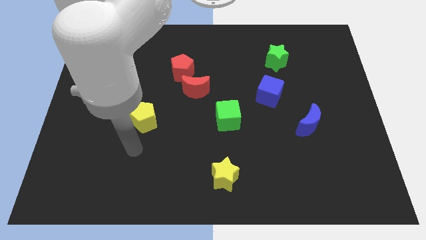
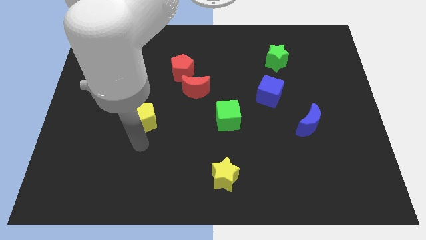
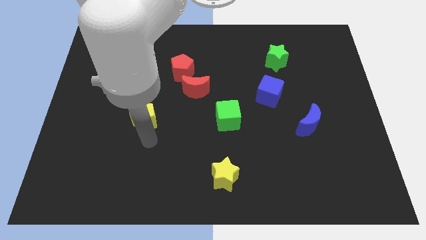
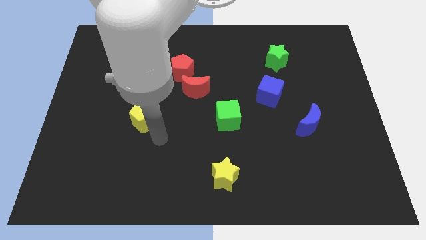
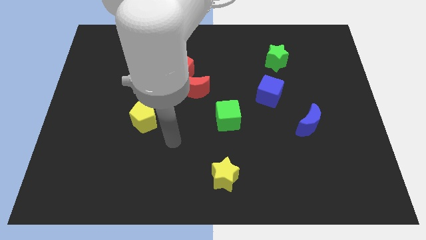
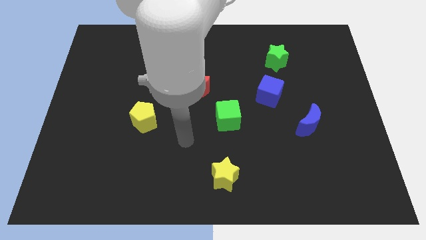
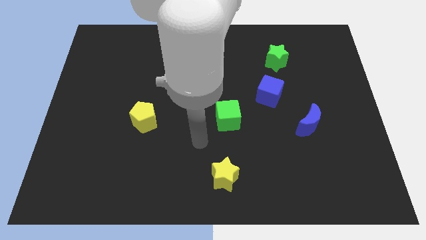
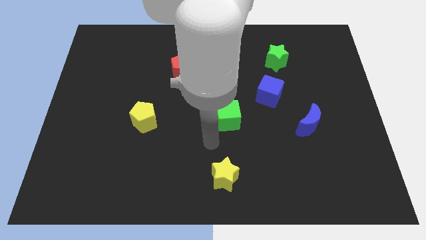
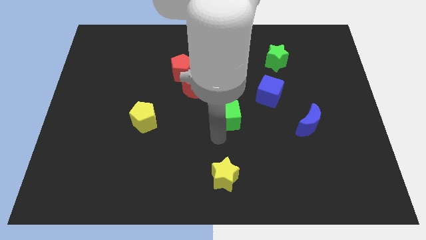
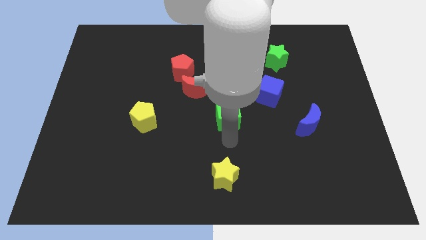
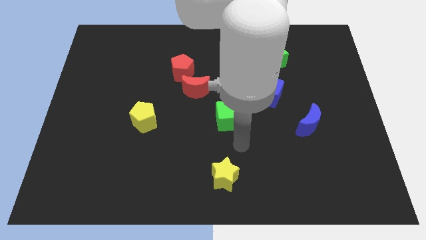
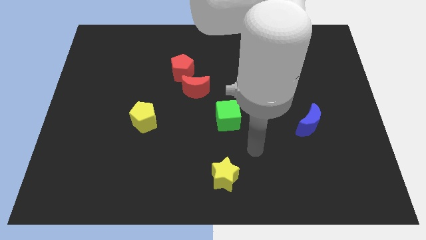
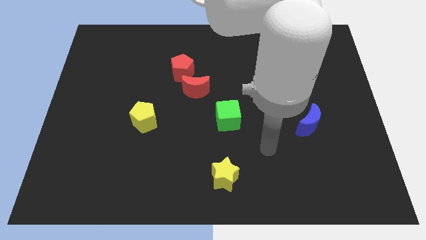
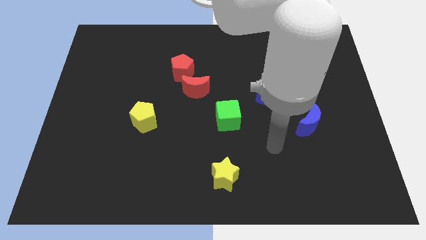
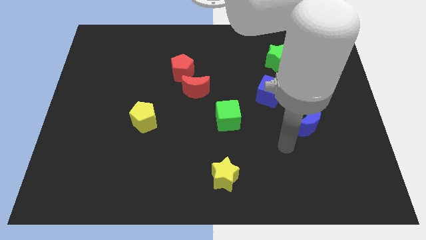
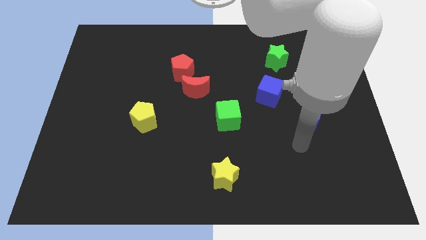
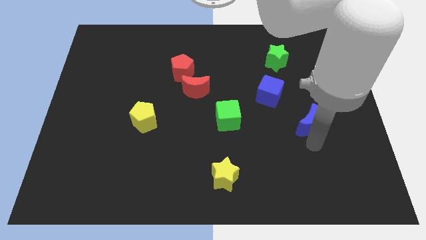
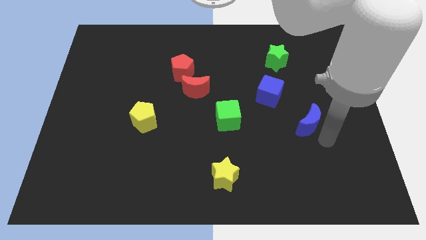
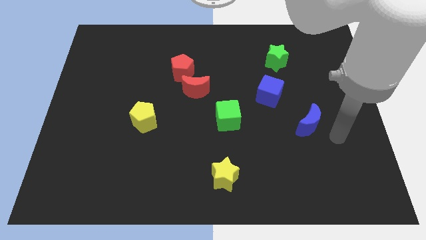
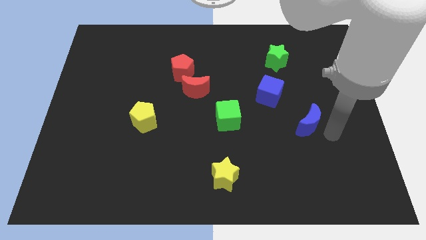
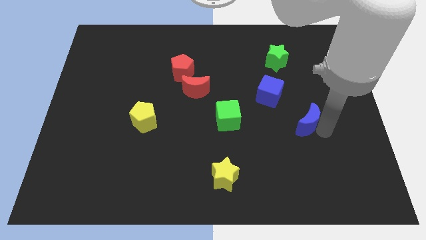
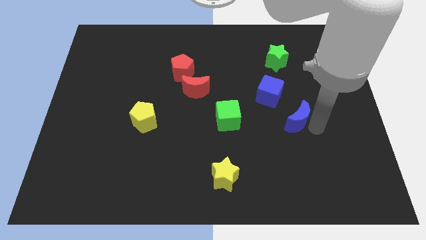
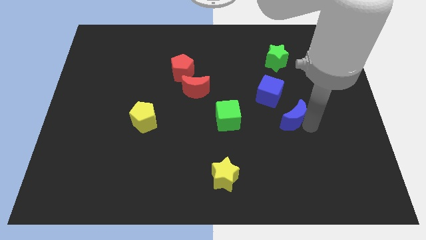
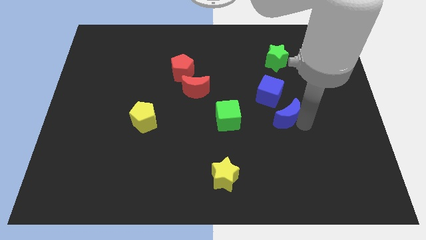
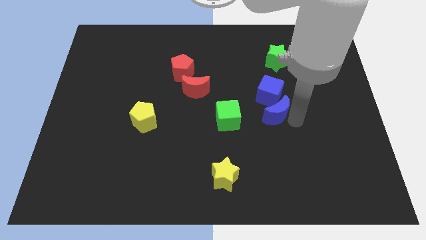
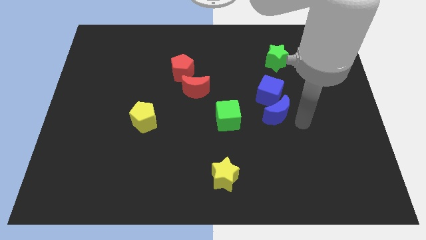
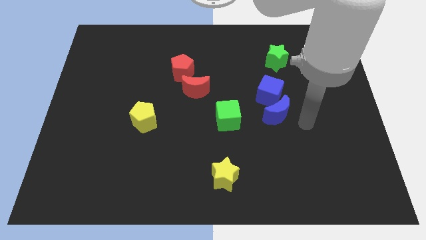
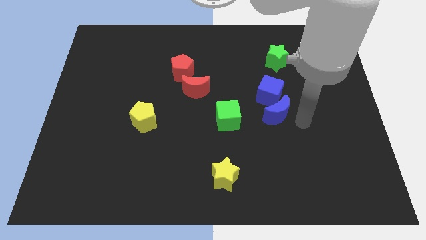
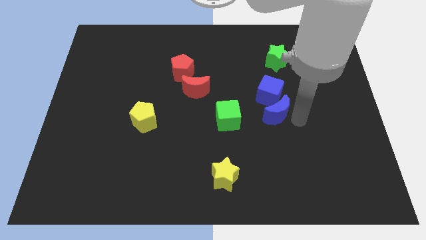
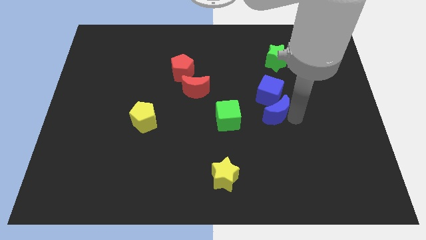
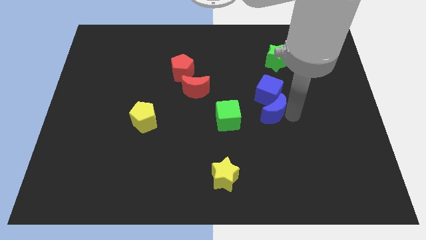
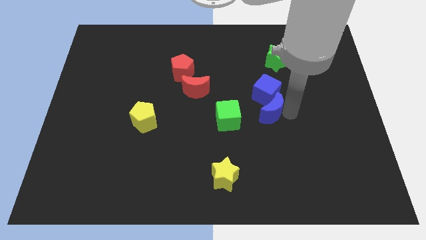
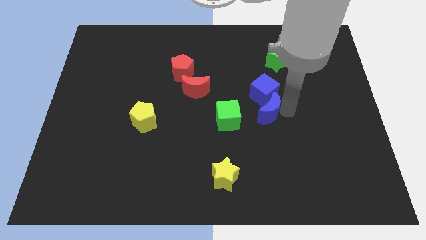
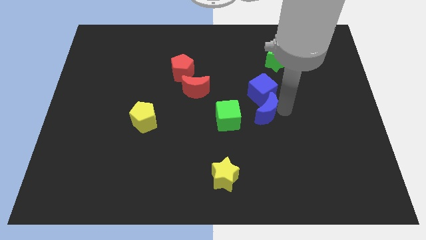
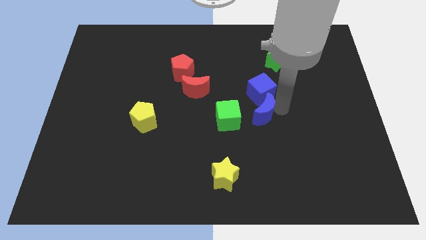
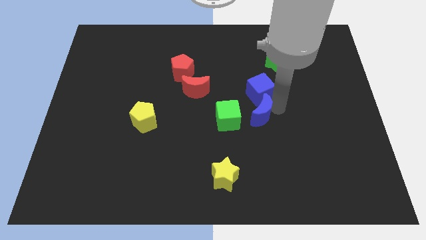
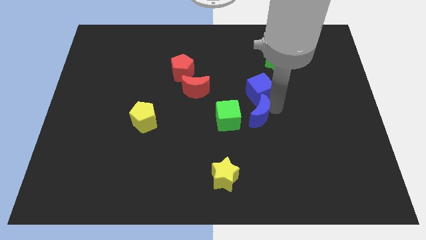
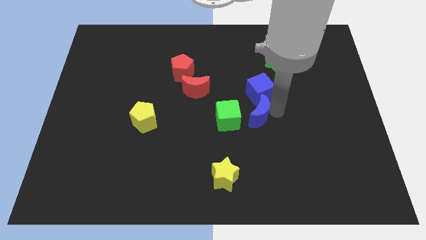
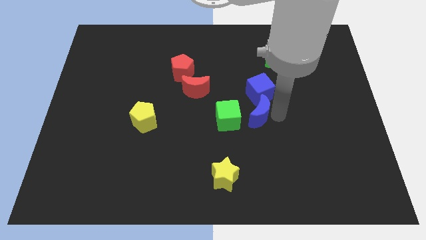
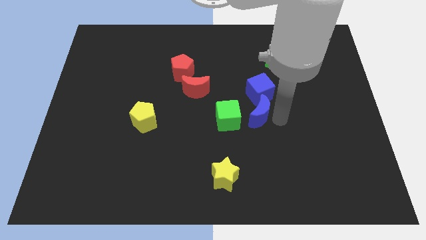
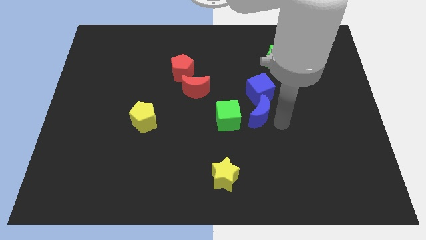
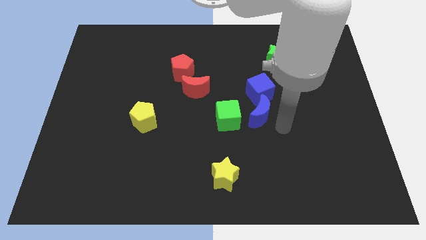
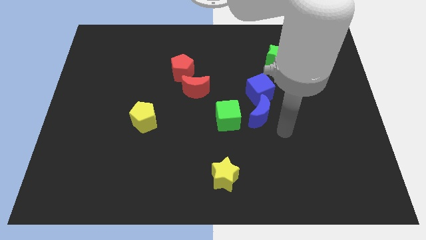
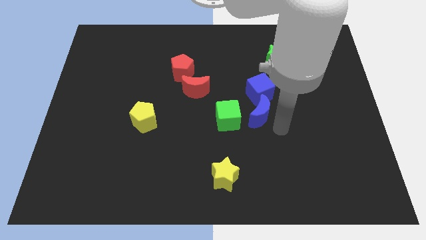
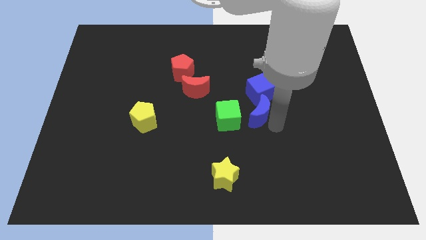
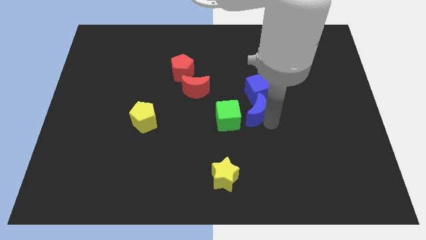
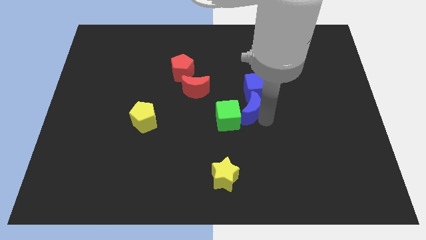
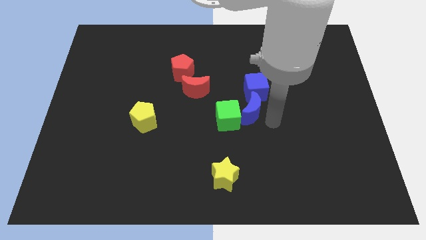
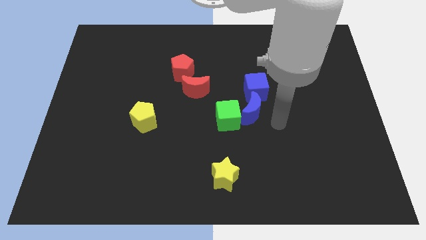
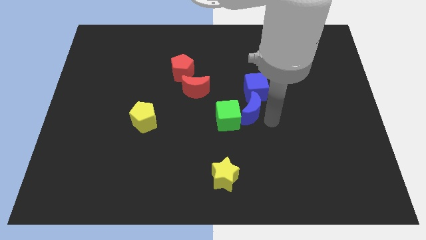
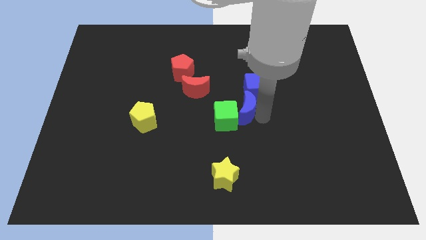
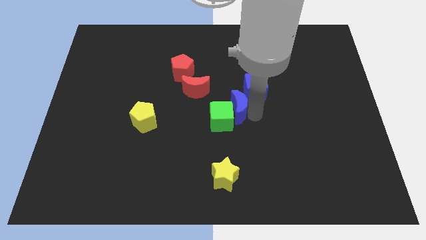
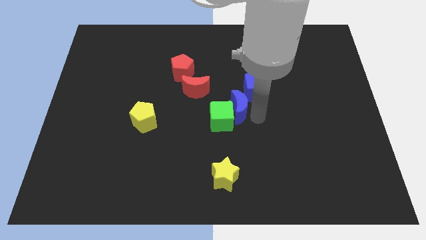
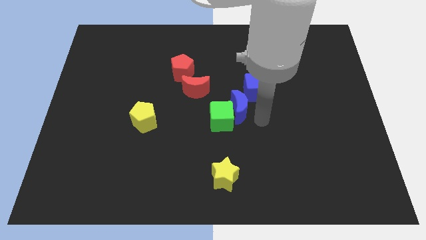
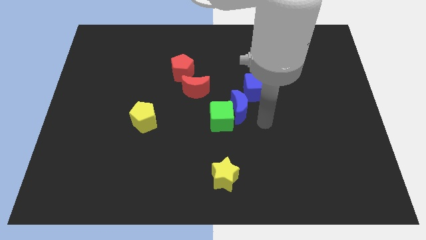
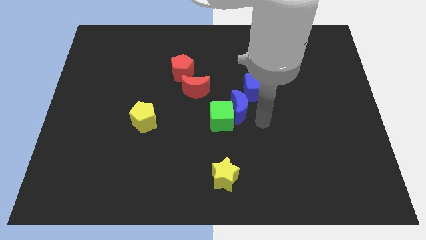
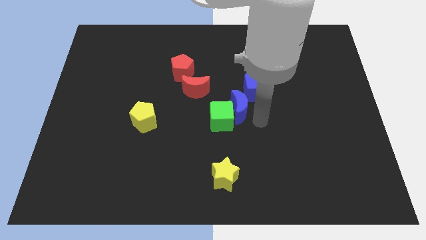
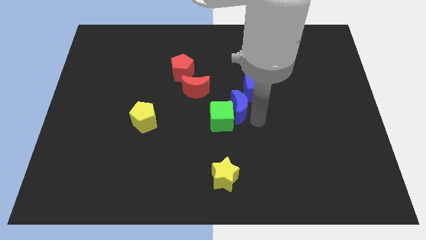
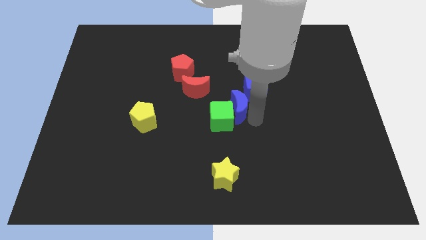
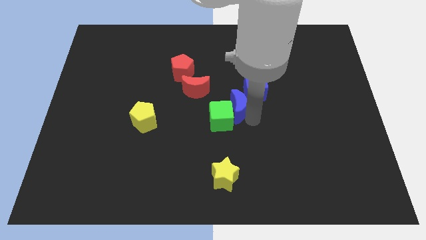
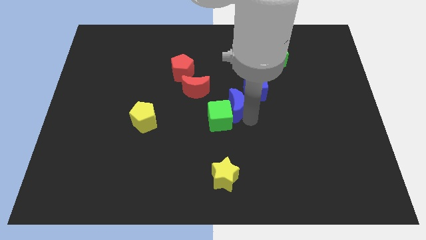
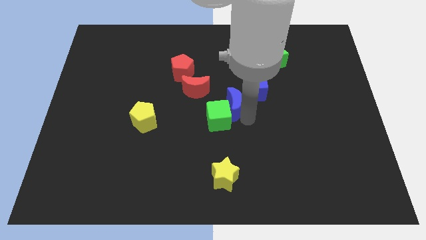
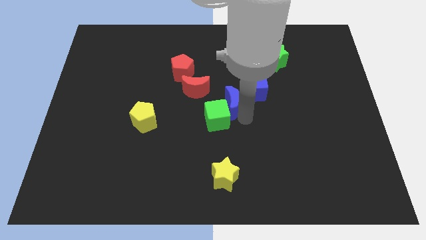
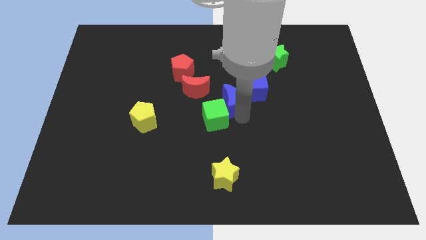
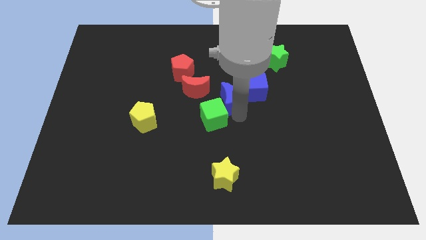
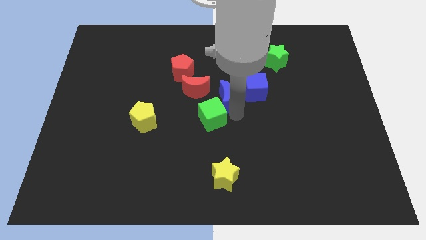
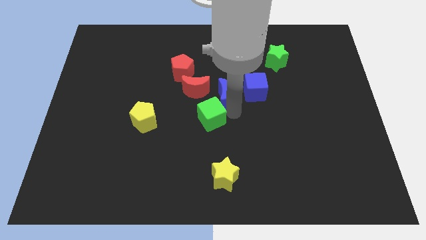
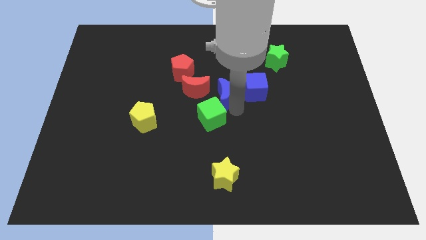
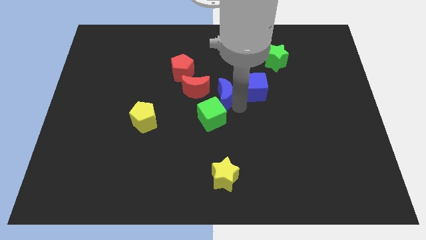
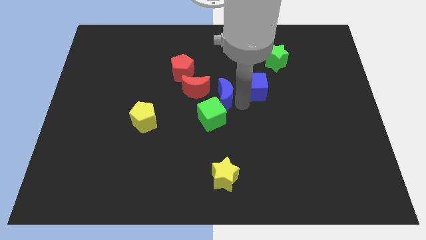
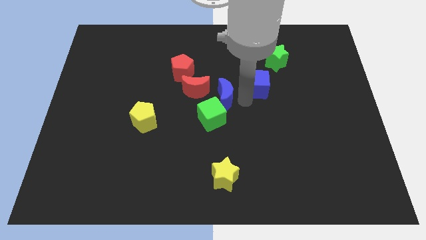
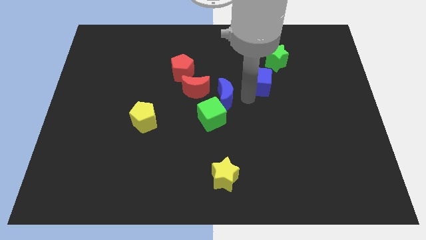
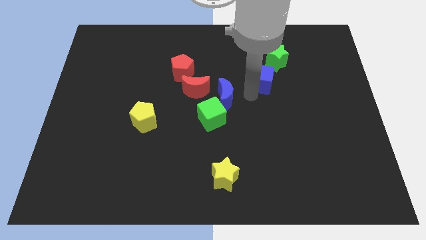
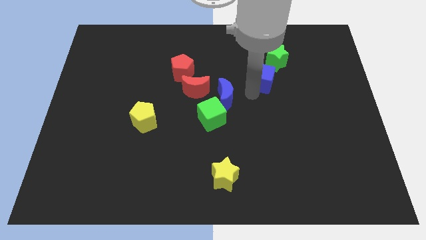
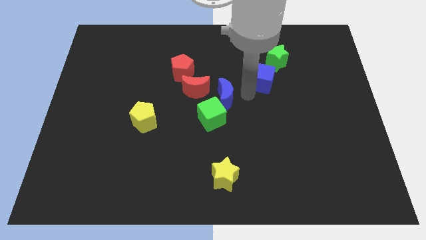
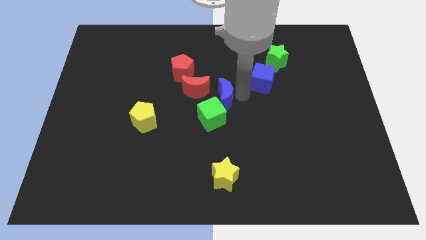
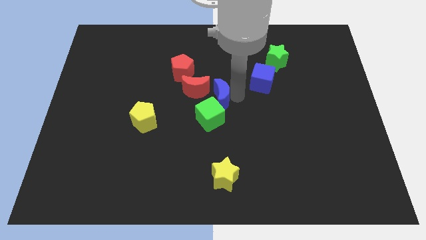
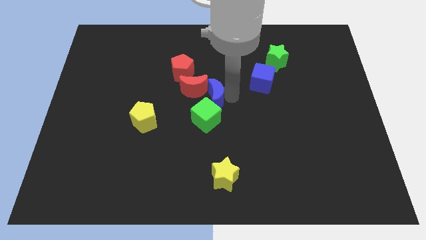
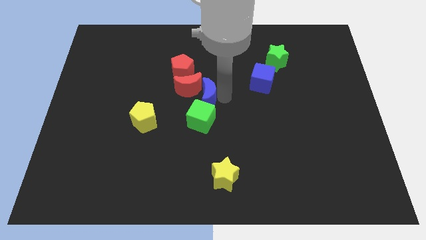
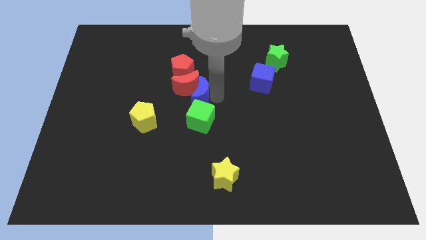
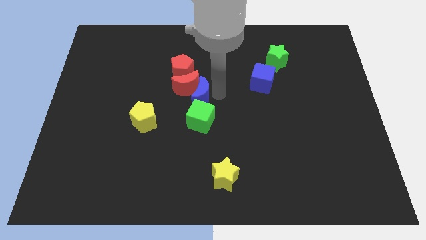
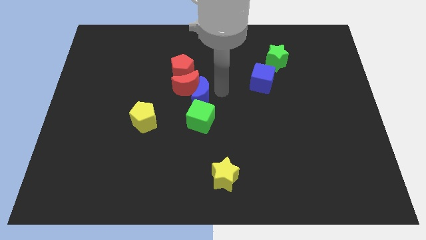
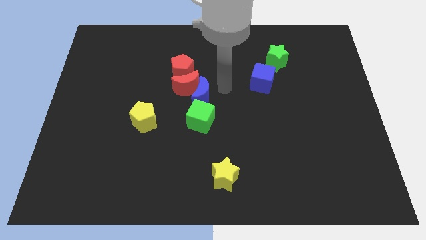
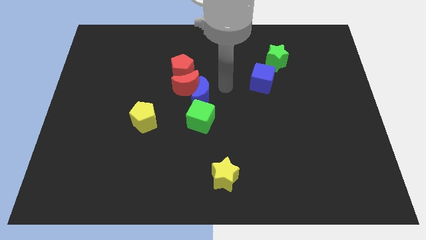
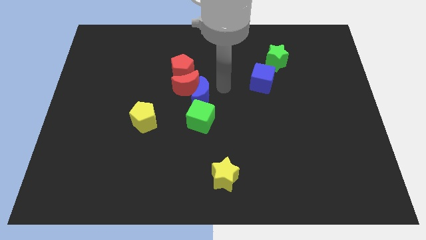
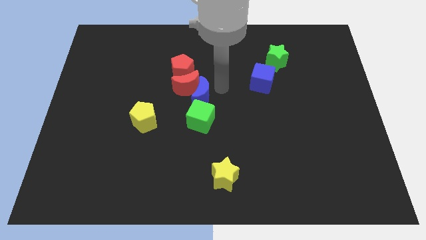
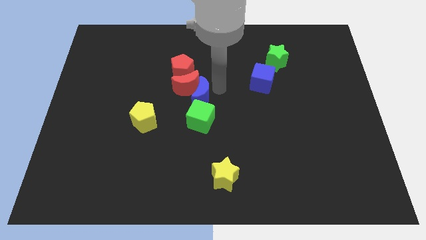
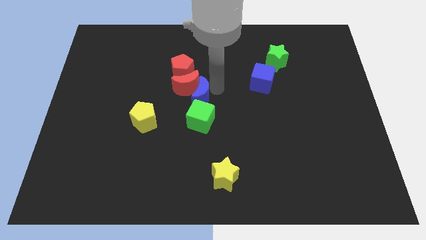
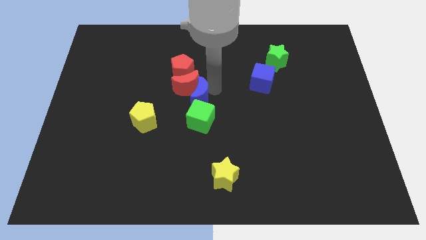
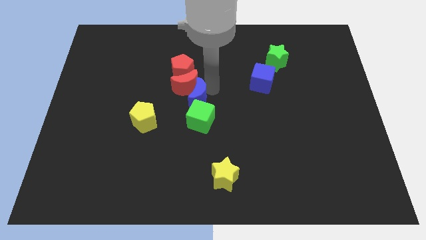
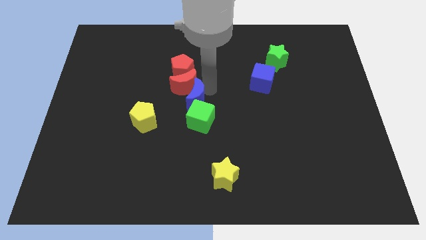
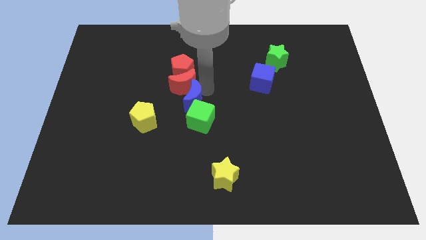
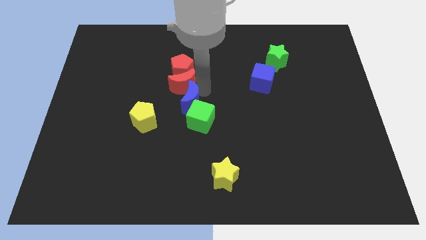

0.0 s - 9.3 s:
push the blue moon to the top right side of the yellow pentagon
